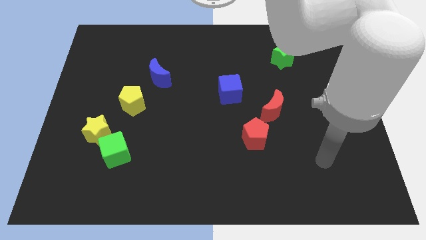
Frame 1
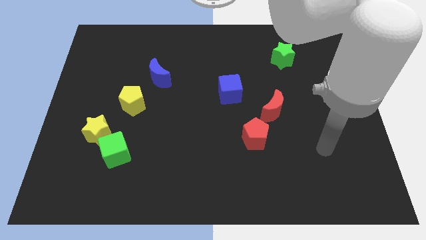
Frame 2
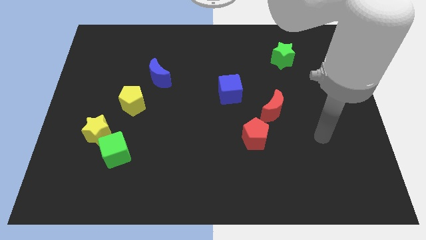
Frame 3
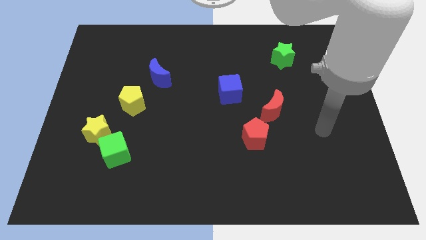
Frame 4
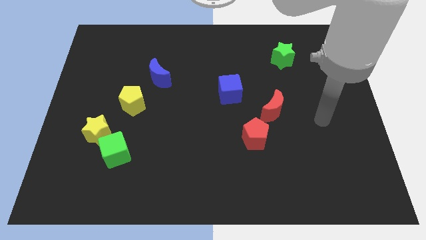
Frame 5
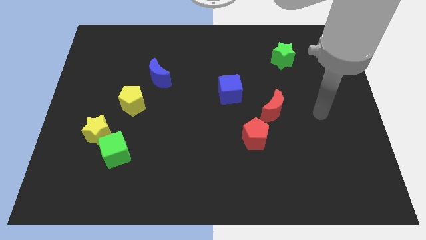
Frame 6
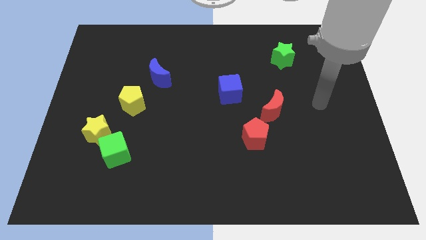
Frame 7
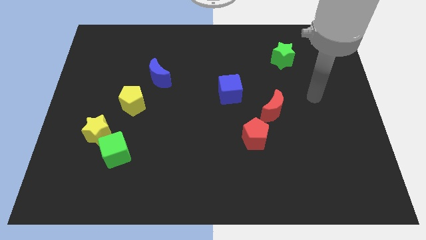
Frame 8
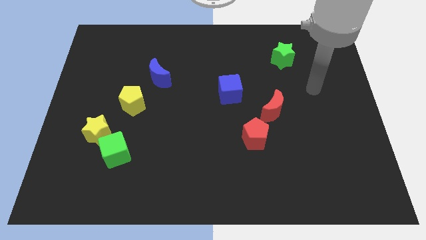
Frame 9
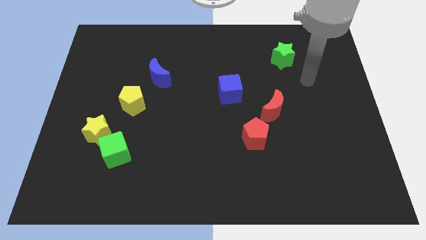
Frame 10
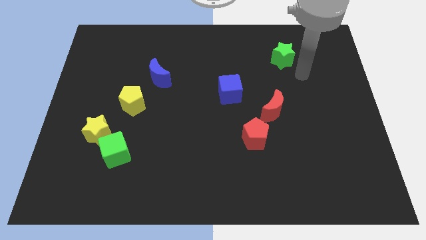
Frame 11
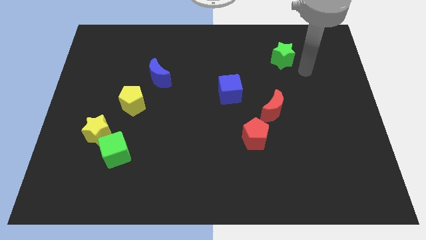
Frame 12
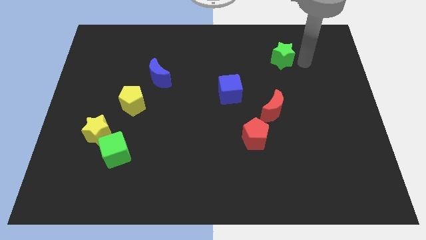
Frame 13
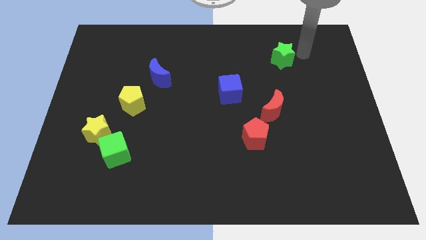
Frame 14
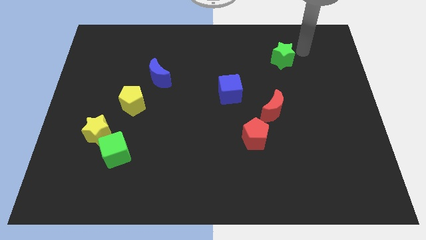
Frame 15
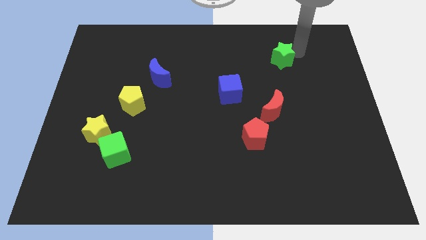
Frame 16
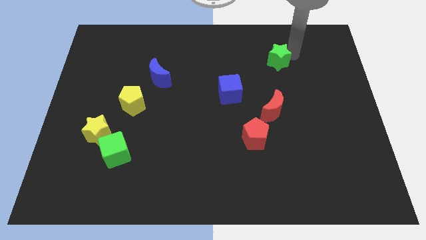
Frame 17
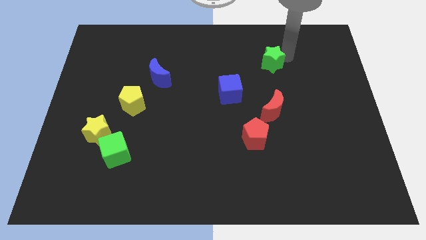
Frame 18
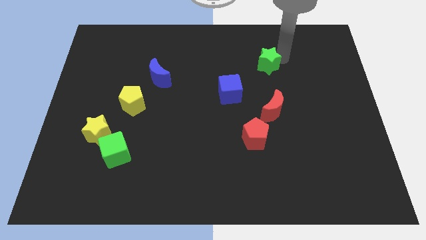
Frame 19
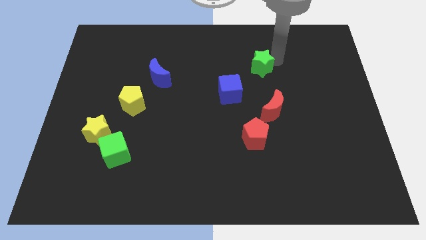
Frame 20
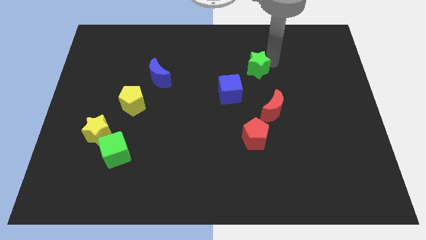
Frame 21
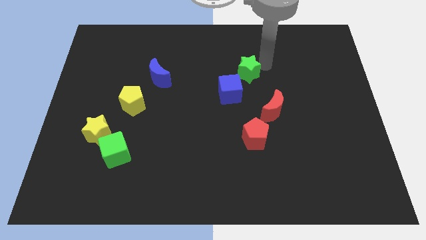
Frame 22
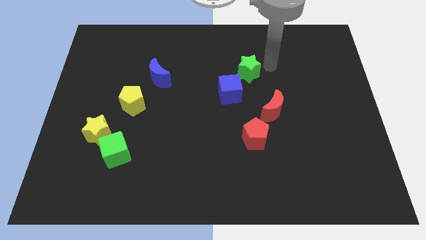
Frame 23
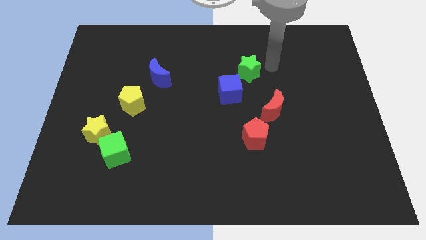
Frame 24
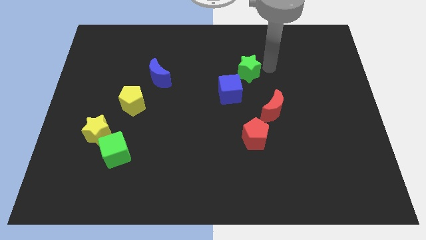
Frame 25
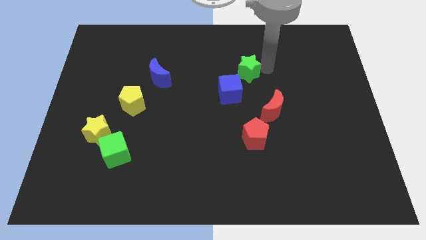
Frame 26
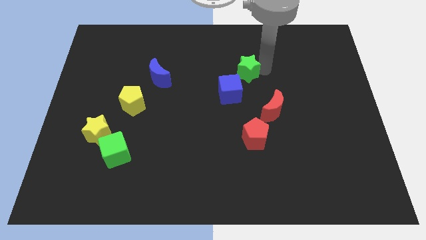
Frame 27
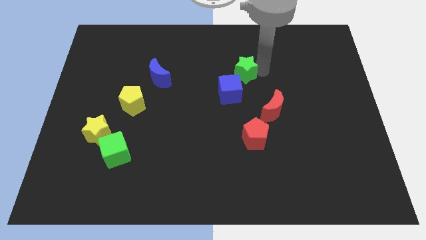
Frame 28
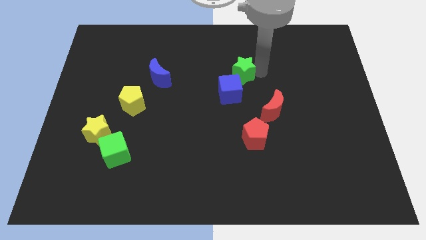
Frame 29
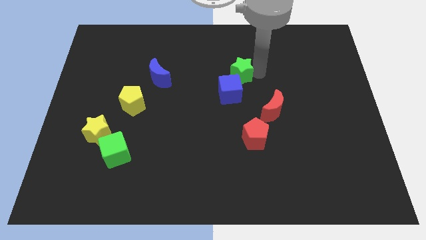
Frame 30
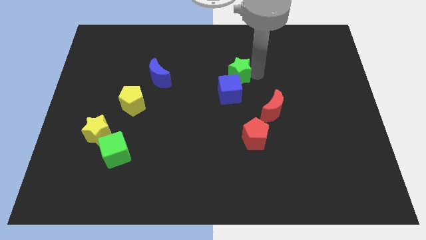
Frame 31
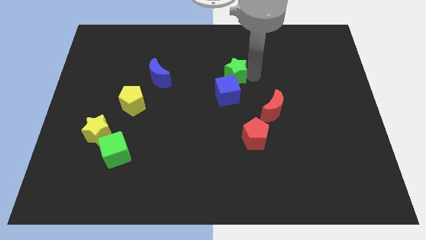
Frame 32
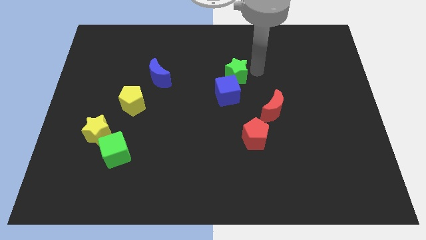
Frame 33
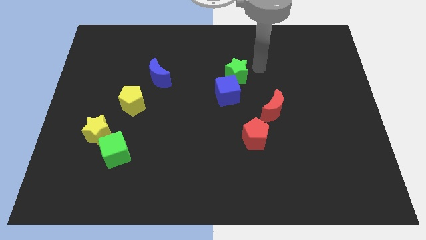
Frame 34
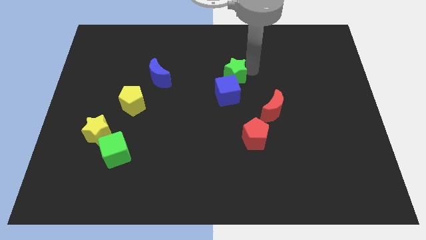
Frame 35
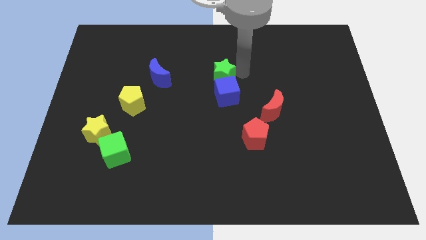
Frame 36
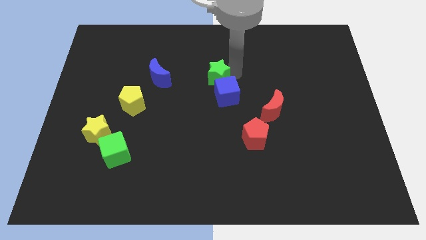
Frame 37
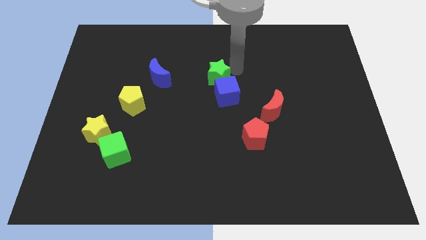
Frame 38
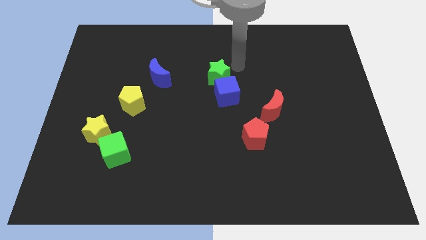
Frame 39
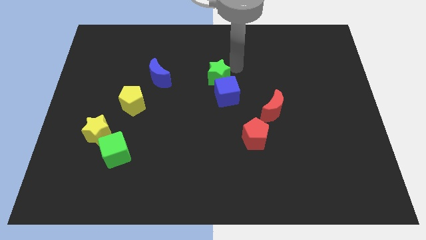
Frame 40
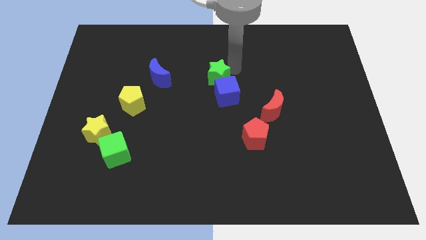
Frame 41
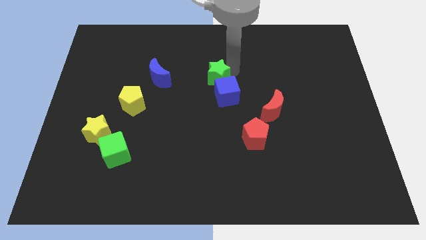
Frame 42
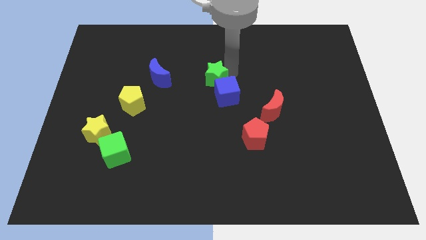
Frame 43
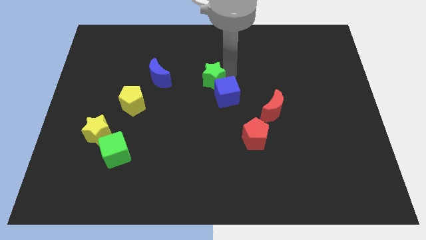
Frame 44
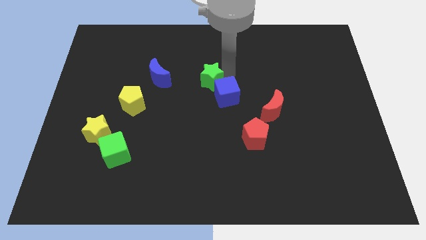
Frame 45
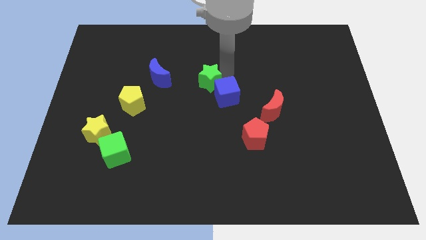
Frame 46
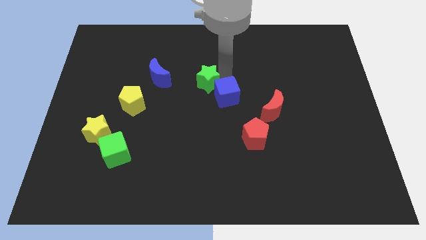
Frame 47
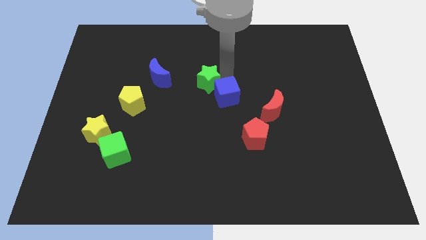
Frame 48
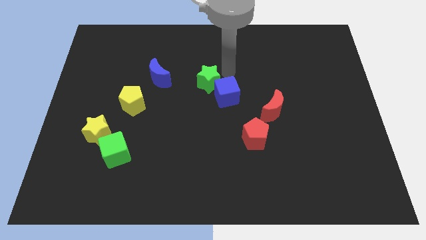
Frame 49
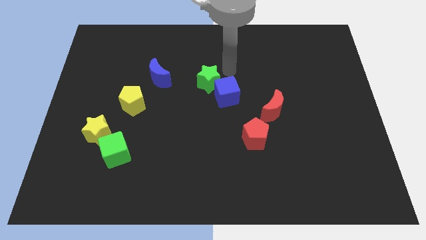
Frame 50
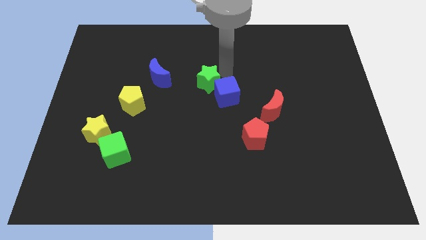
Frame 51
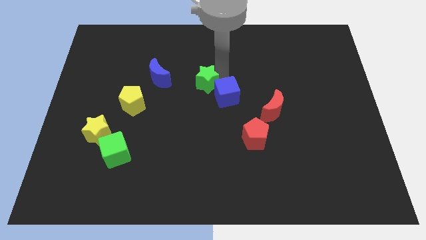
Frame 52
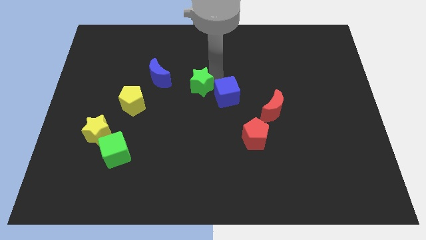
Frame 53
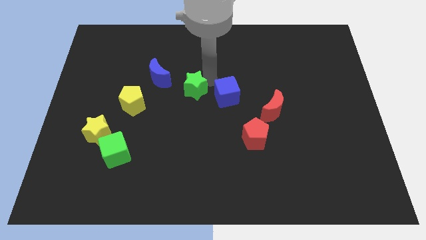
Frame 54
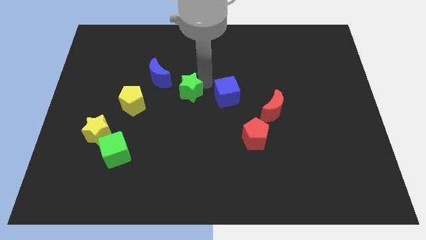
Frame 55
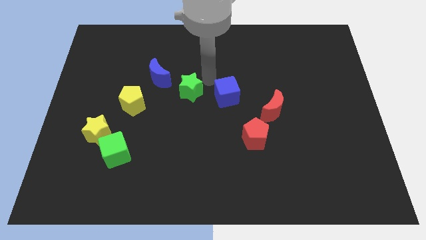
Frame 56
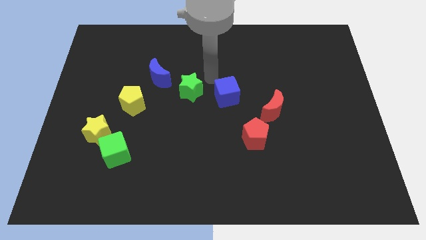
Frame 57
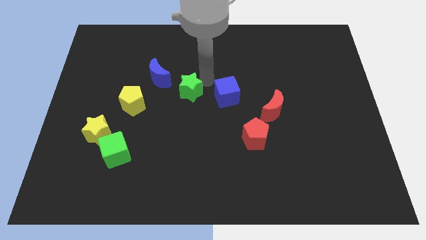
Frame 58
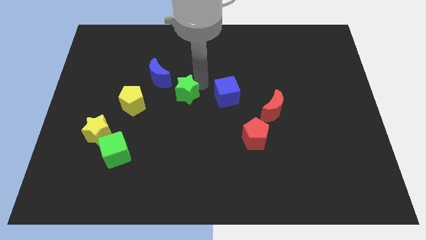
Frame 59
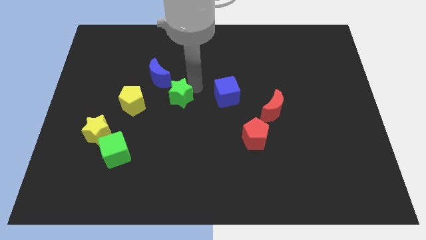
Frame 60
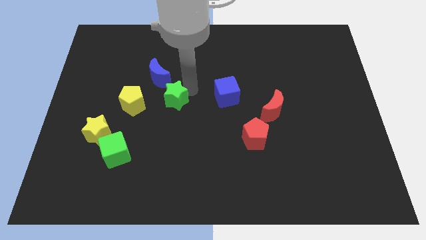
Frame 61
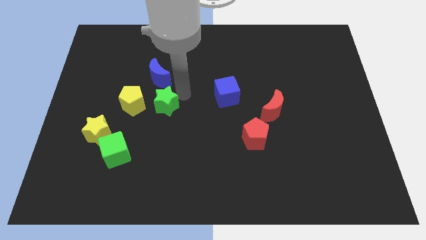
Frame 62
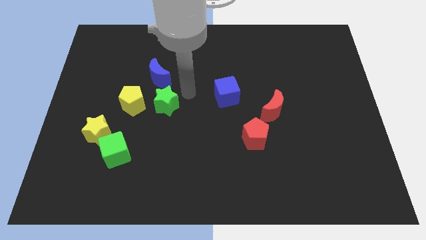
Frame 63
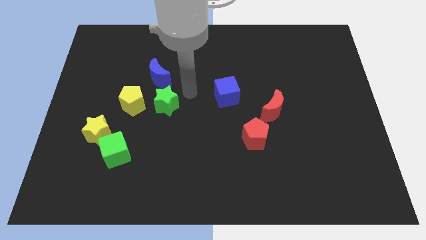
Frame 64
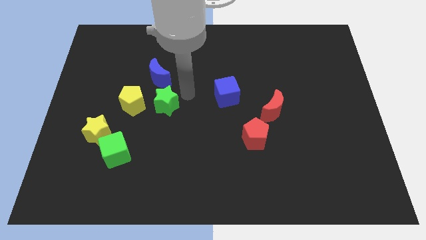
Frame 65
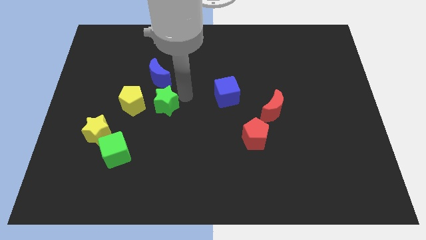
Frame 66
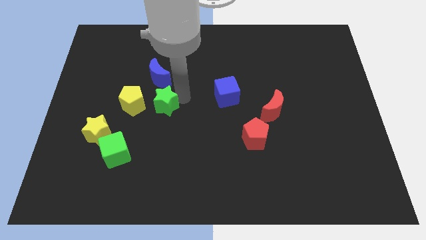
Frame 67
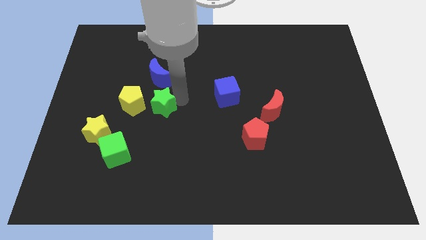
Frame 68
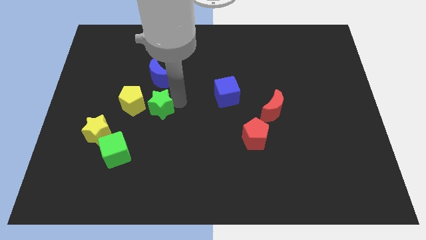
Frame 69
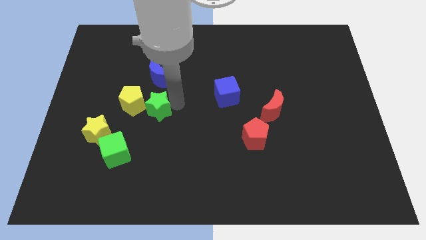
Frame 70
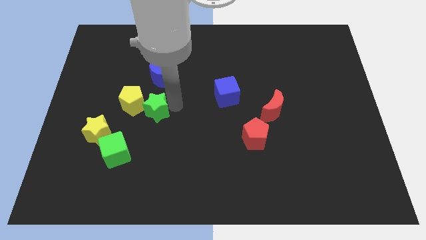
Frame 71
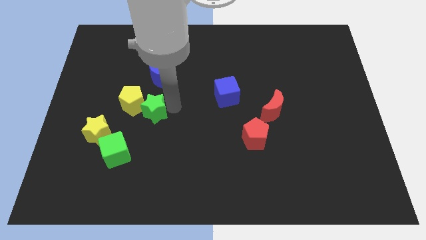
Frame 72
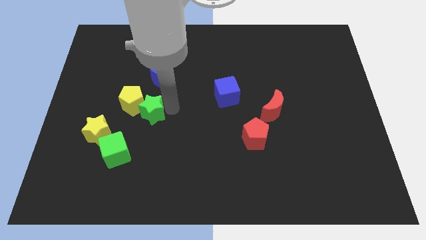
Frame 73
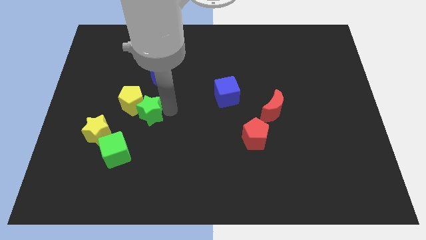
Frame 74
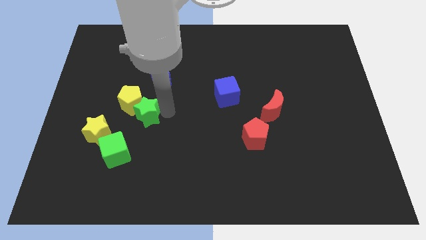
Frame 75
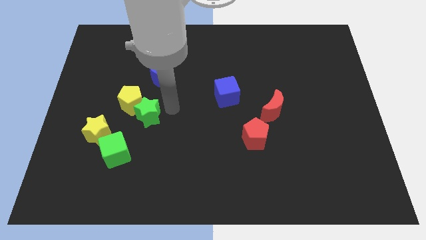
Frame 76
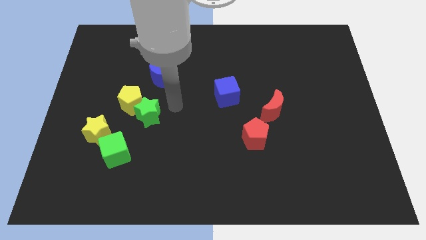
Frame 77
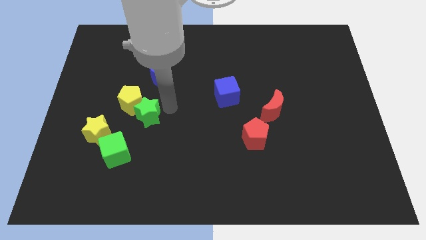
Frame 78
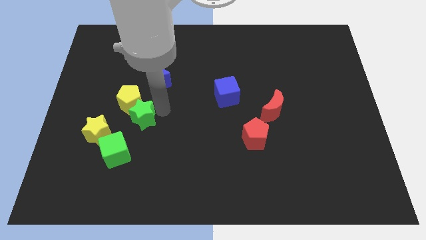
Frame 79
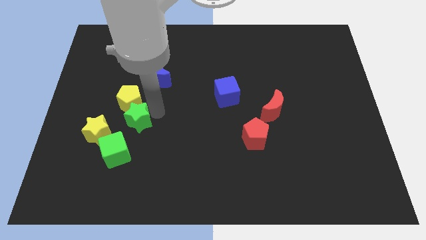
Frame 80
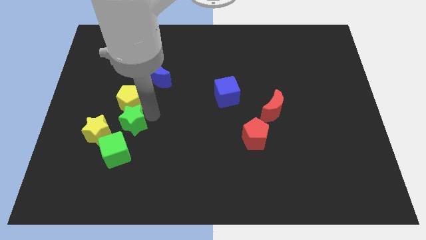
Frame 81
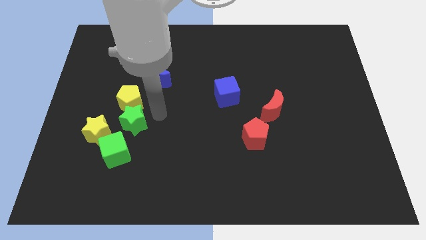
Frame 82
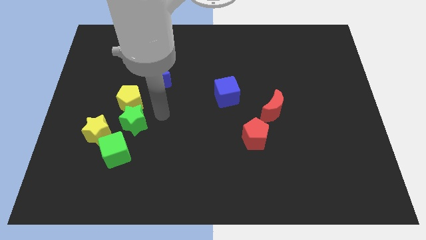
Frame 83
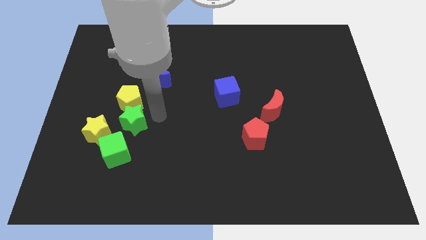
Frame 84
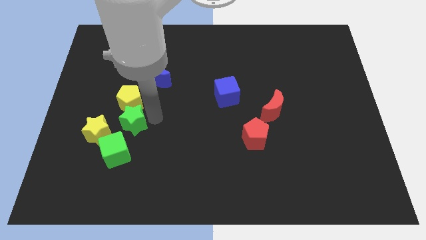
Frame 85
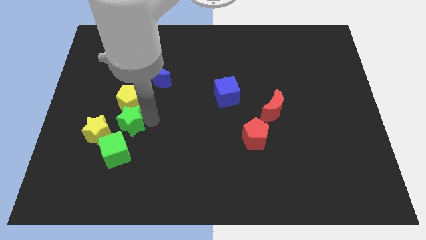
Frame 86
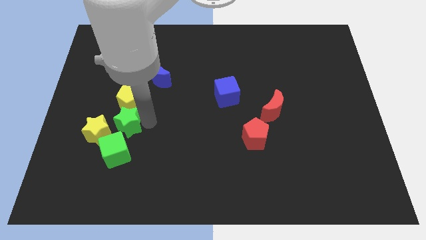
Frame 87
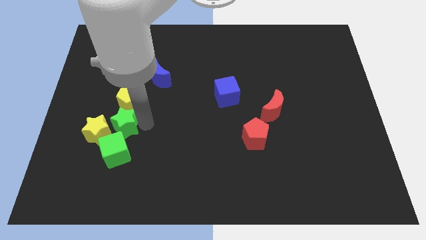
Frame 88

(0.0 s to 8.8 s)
put the green star close to the yellow star
